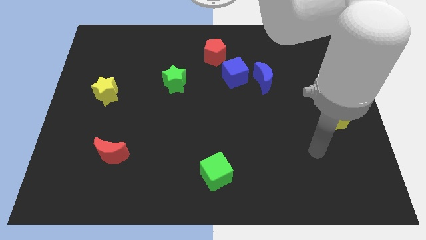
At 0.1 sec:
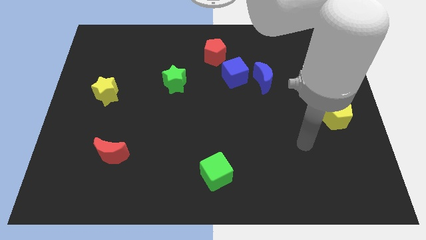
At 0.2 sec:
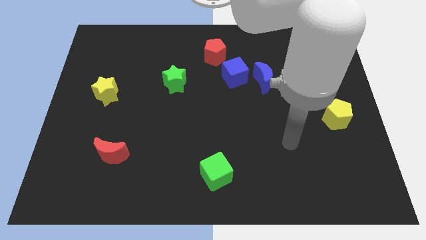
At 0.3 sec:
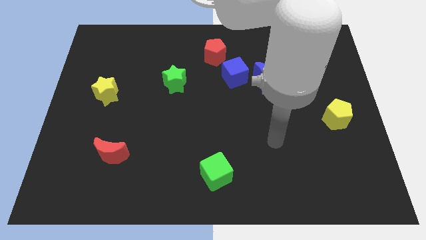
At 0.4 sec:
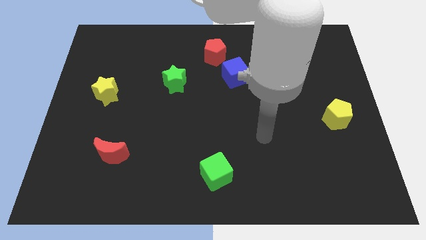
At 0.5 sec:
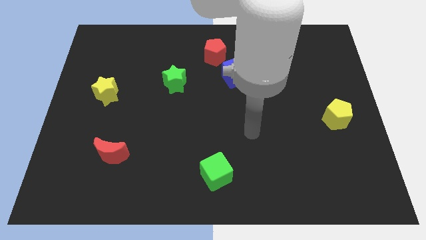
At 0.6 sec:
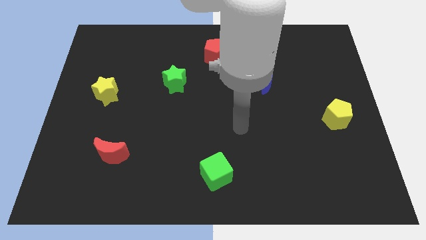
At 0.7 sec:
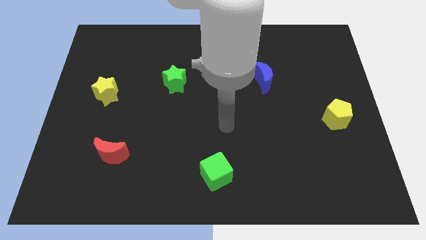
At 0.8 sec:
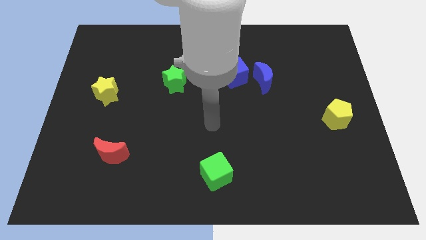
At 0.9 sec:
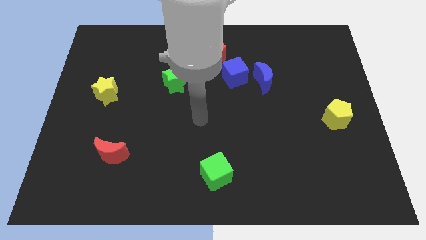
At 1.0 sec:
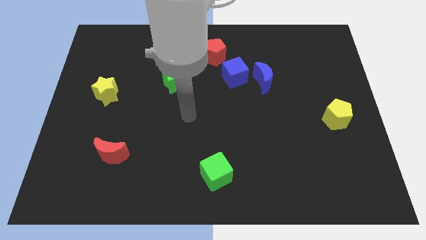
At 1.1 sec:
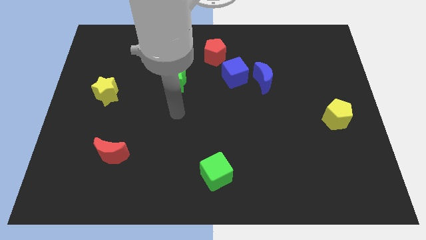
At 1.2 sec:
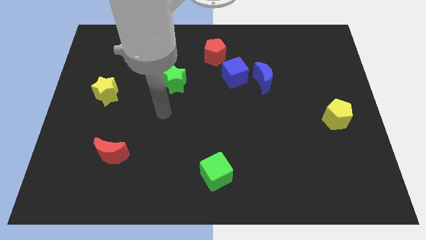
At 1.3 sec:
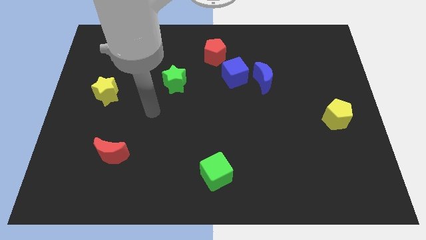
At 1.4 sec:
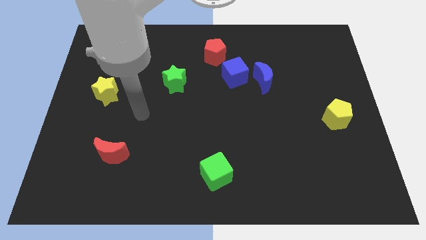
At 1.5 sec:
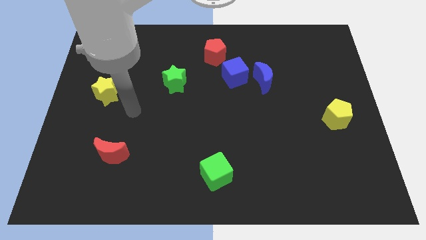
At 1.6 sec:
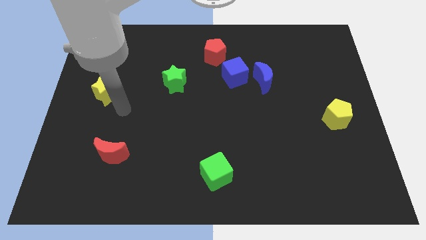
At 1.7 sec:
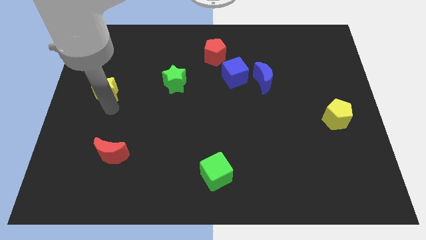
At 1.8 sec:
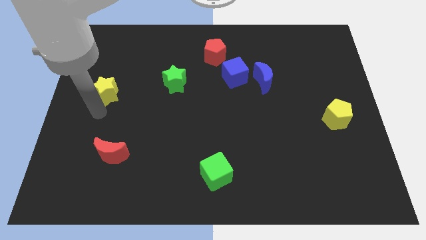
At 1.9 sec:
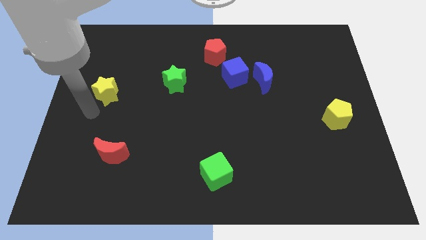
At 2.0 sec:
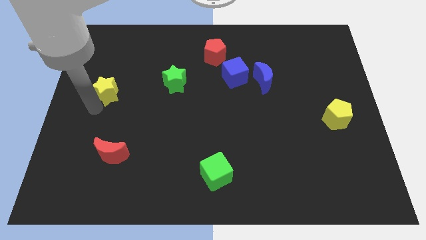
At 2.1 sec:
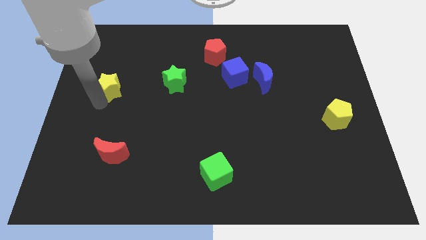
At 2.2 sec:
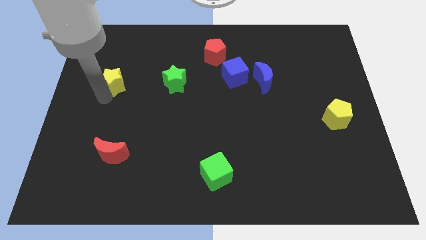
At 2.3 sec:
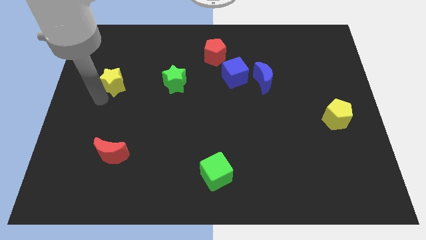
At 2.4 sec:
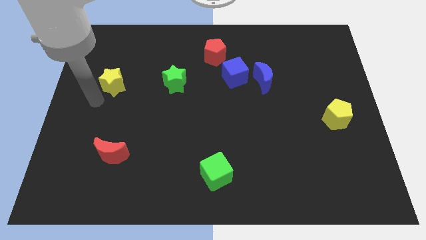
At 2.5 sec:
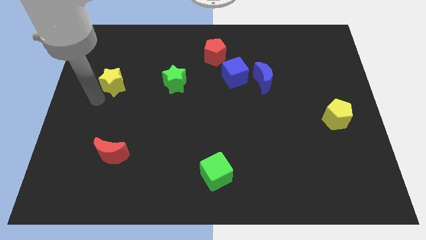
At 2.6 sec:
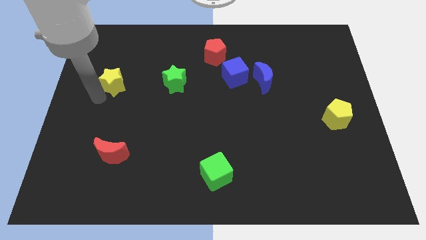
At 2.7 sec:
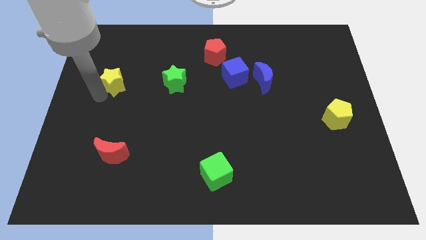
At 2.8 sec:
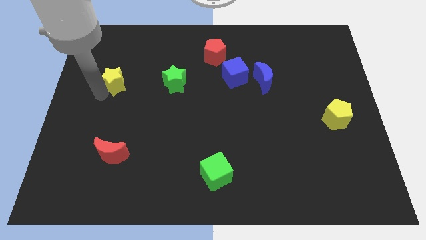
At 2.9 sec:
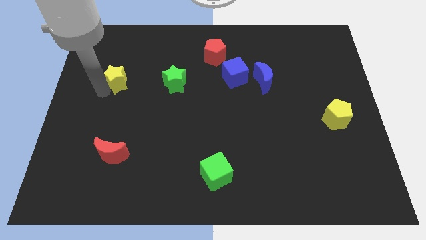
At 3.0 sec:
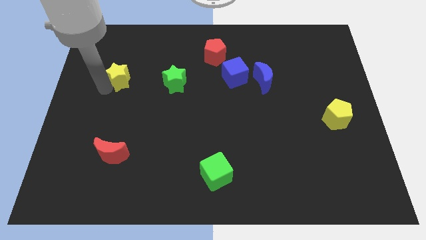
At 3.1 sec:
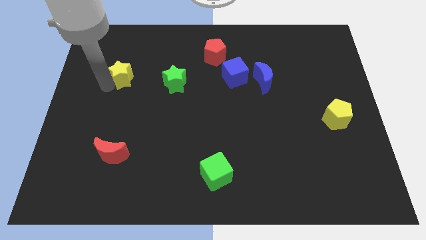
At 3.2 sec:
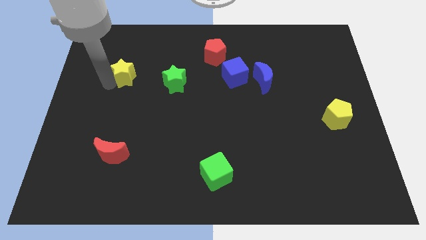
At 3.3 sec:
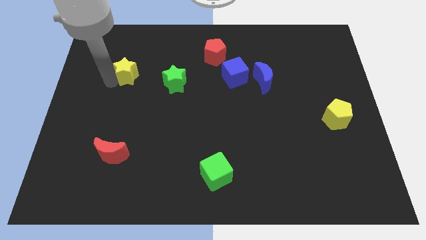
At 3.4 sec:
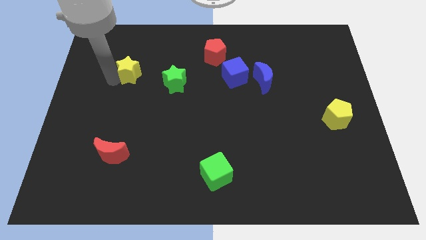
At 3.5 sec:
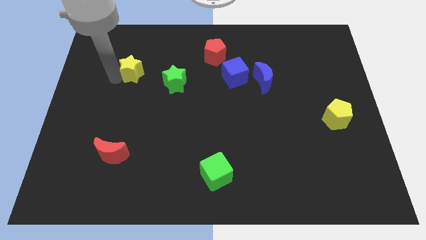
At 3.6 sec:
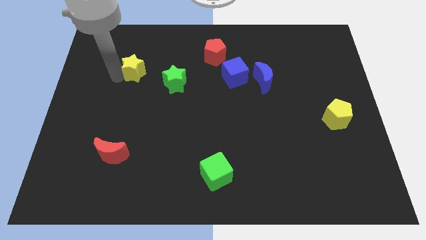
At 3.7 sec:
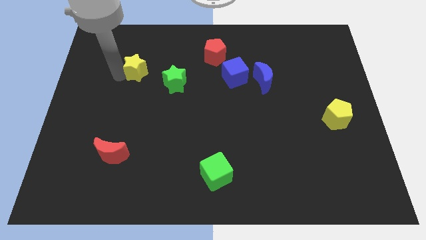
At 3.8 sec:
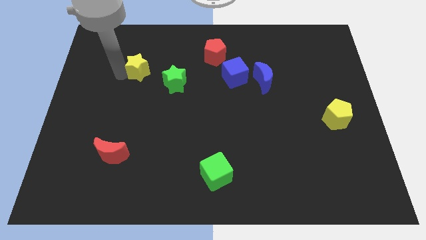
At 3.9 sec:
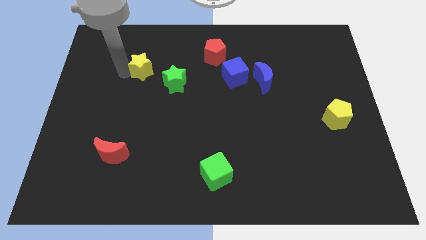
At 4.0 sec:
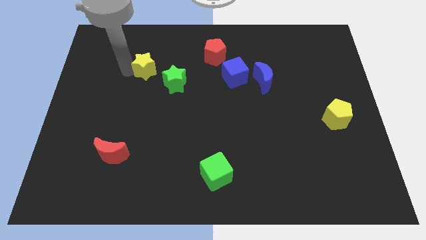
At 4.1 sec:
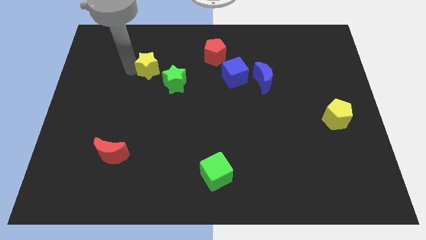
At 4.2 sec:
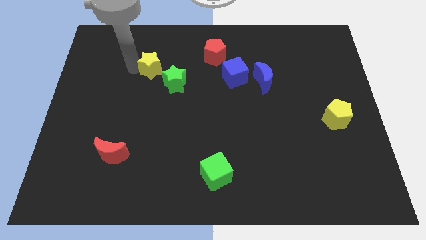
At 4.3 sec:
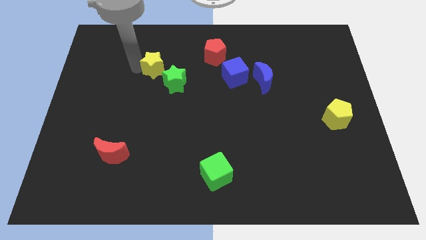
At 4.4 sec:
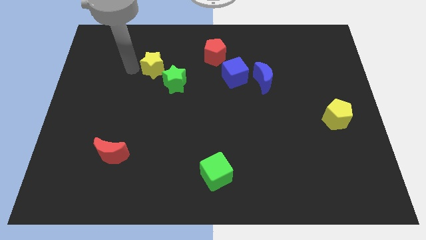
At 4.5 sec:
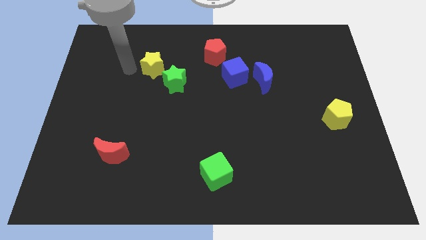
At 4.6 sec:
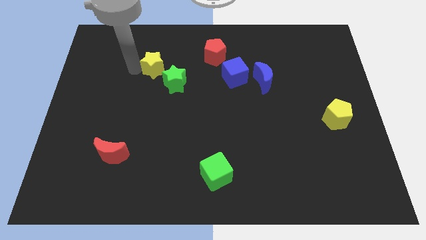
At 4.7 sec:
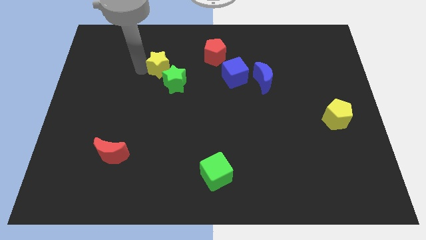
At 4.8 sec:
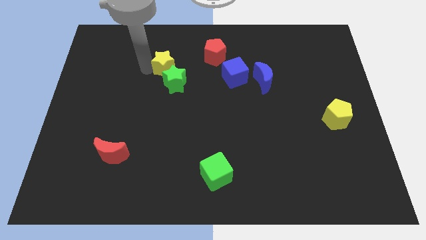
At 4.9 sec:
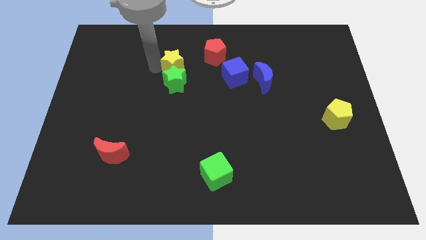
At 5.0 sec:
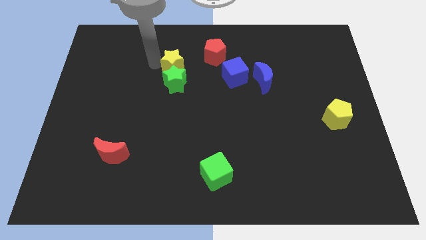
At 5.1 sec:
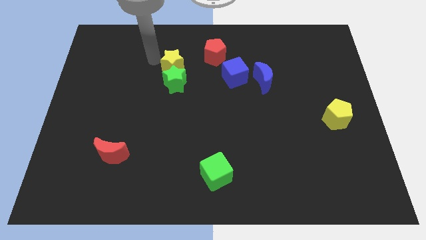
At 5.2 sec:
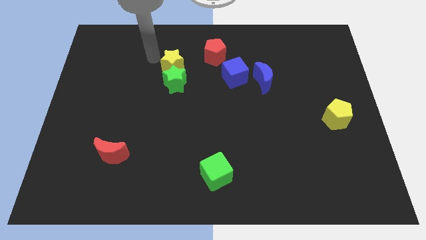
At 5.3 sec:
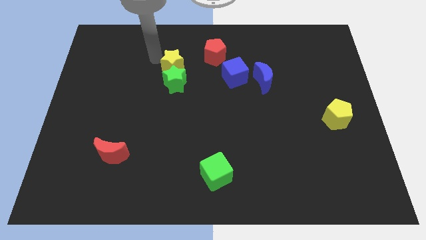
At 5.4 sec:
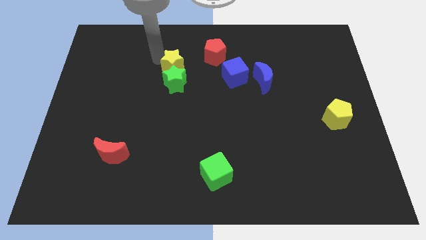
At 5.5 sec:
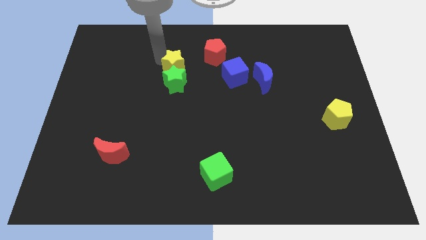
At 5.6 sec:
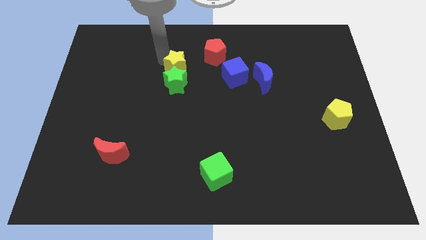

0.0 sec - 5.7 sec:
put the yellow star to the left side of the blue cube

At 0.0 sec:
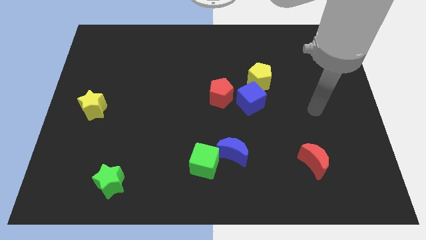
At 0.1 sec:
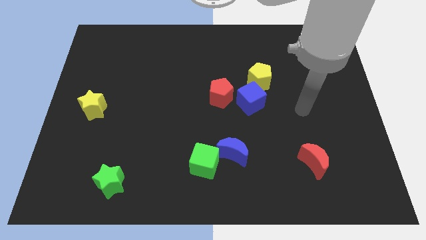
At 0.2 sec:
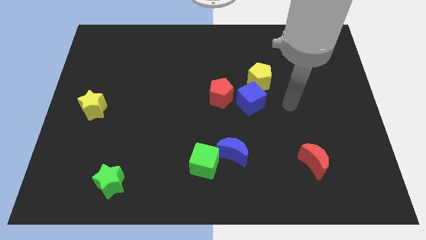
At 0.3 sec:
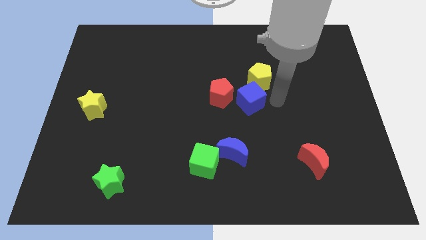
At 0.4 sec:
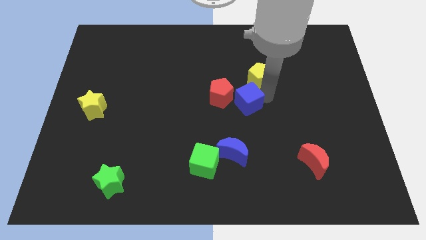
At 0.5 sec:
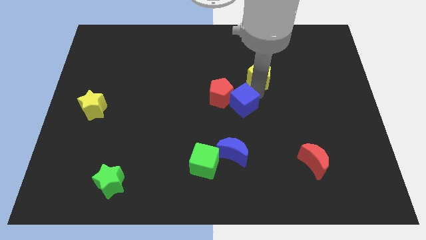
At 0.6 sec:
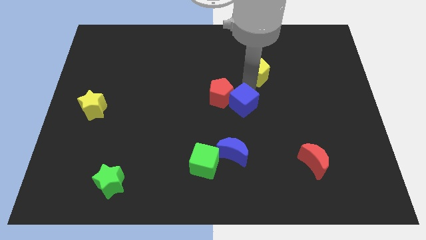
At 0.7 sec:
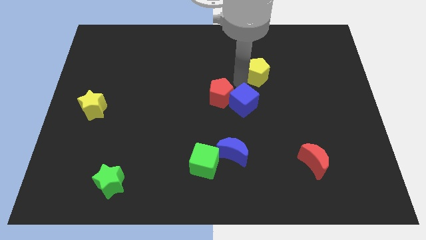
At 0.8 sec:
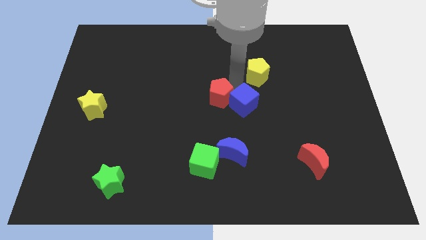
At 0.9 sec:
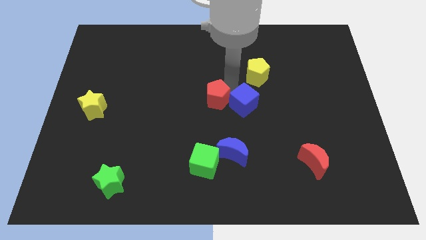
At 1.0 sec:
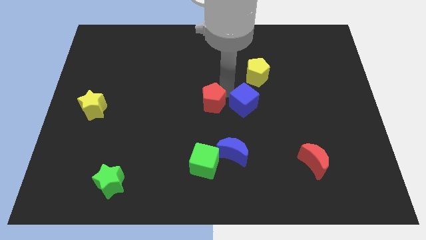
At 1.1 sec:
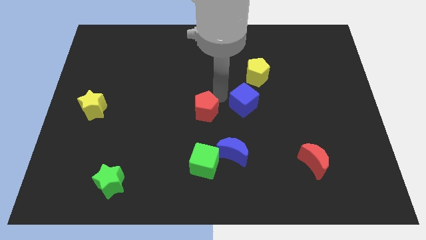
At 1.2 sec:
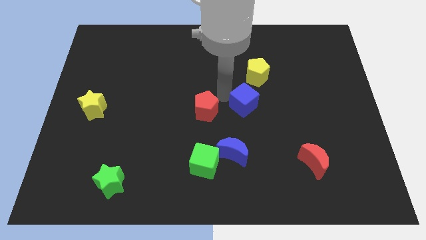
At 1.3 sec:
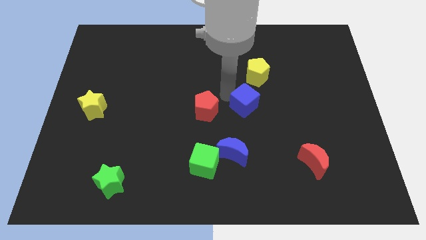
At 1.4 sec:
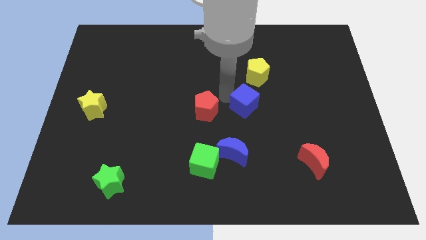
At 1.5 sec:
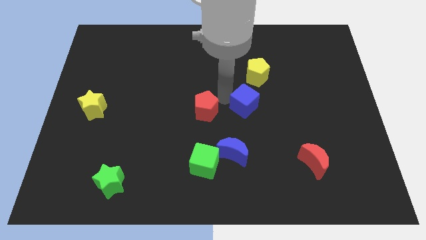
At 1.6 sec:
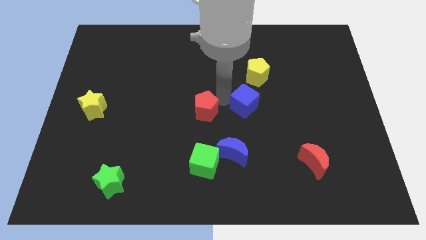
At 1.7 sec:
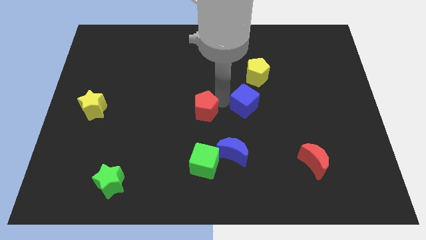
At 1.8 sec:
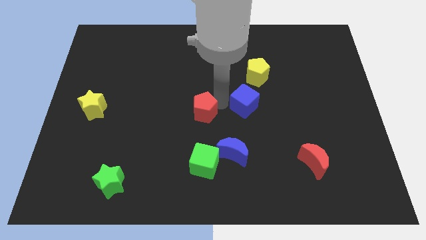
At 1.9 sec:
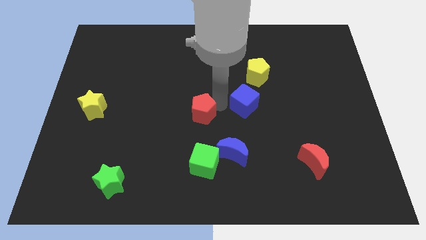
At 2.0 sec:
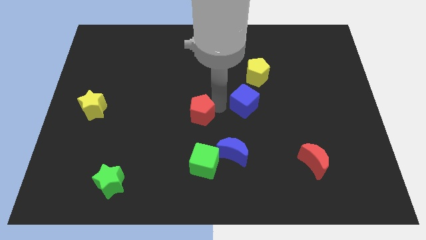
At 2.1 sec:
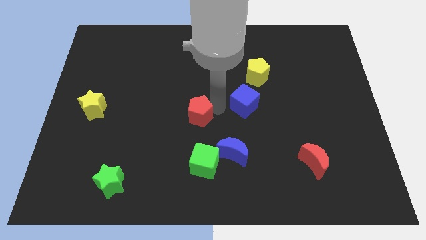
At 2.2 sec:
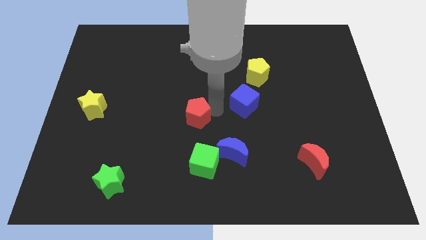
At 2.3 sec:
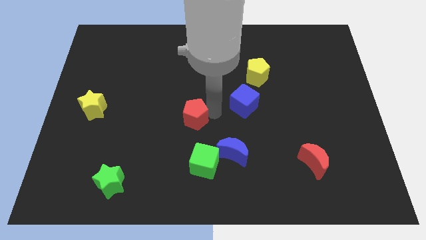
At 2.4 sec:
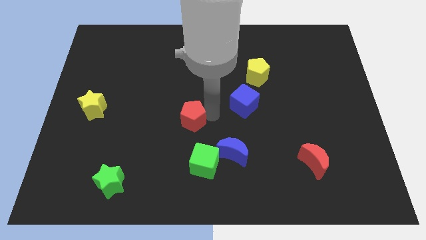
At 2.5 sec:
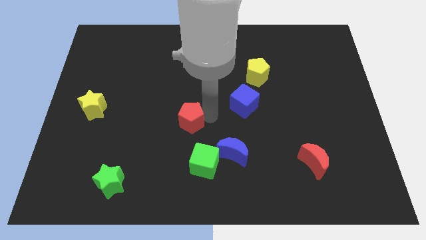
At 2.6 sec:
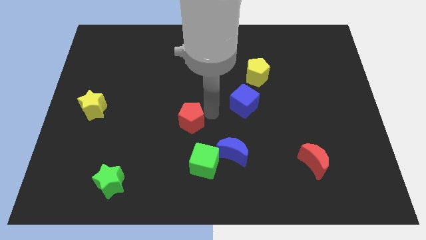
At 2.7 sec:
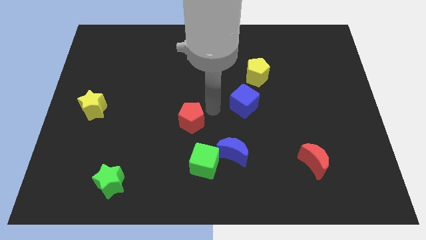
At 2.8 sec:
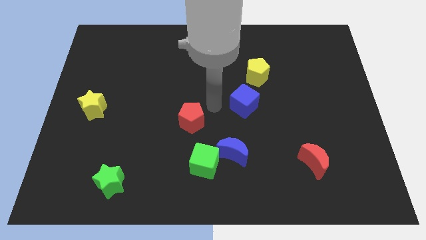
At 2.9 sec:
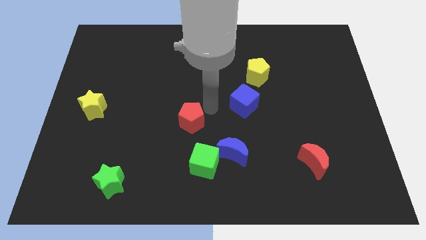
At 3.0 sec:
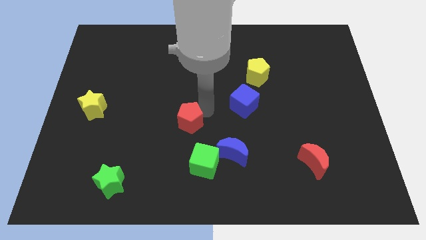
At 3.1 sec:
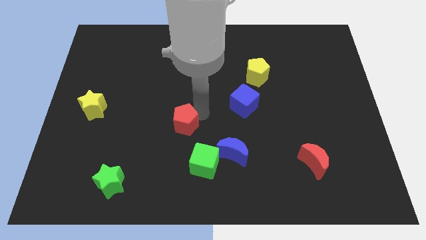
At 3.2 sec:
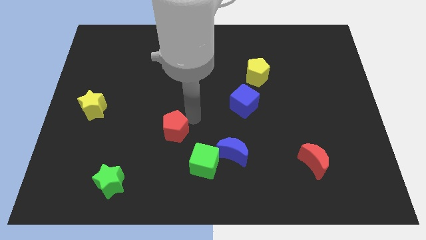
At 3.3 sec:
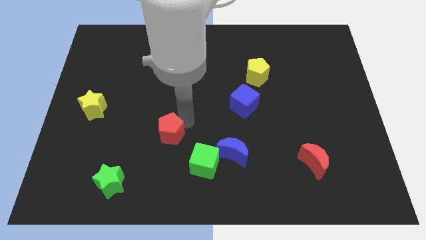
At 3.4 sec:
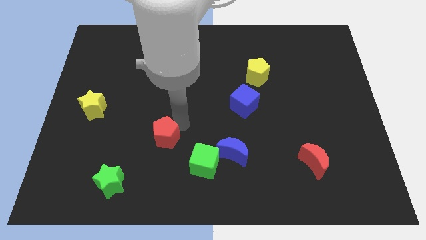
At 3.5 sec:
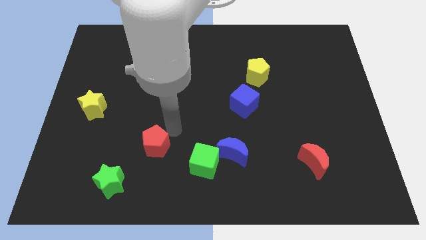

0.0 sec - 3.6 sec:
put the red pentagon to the top right side of the green star
